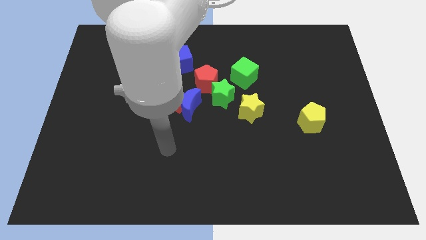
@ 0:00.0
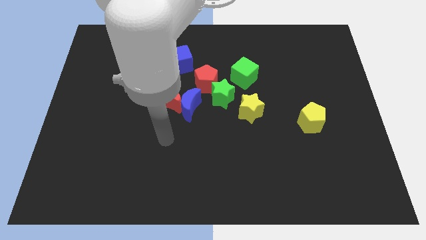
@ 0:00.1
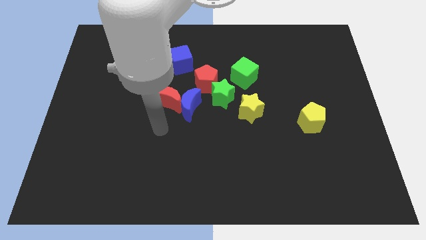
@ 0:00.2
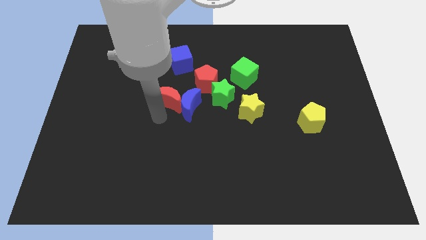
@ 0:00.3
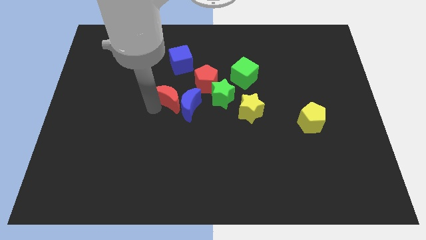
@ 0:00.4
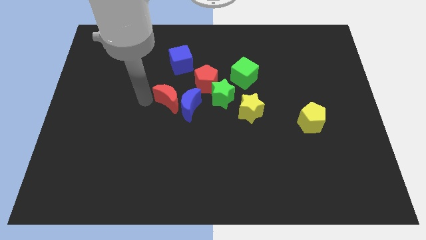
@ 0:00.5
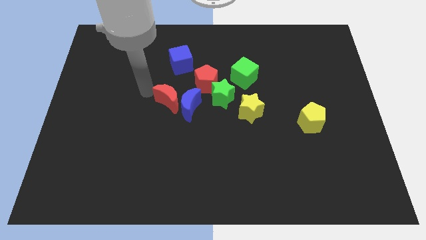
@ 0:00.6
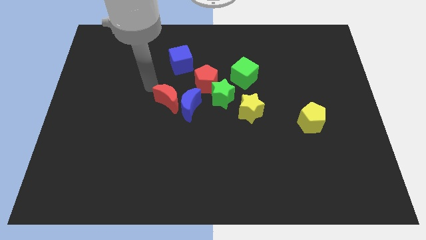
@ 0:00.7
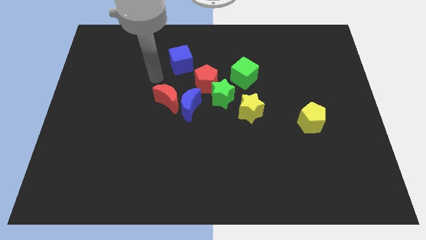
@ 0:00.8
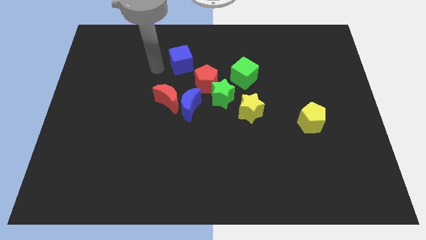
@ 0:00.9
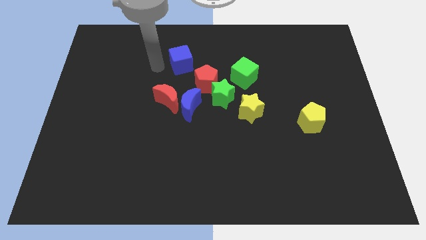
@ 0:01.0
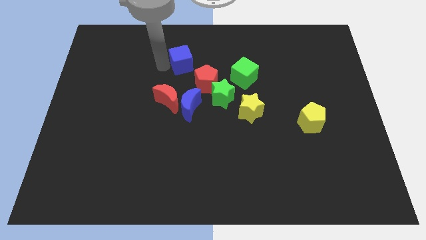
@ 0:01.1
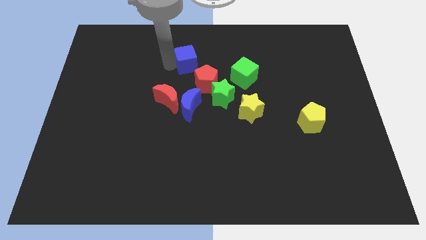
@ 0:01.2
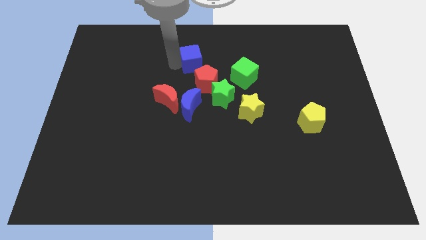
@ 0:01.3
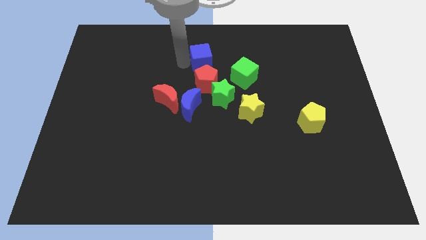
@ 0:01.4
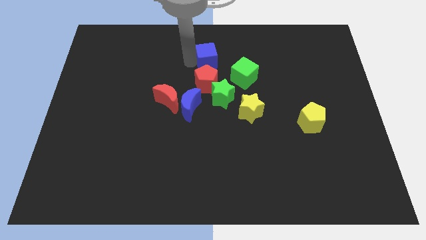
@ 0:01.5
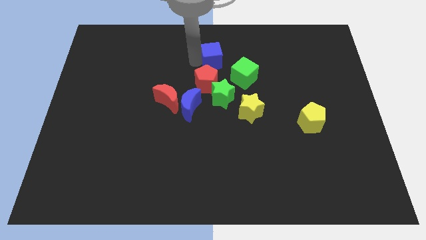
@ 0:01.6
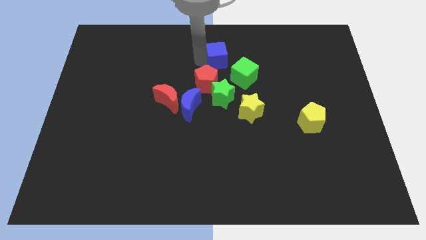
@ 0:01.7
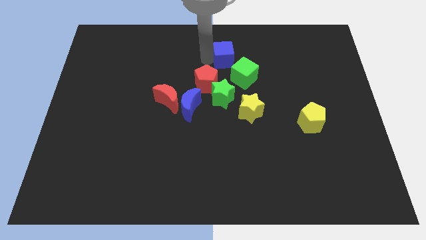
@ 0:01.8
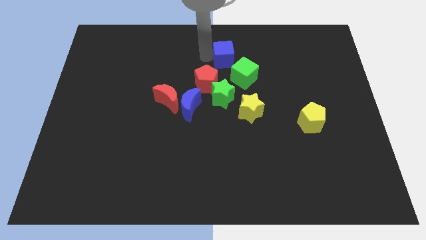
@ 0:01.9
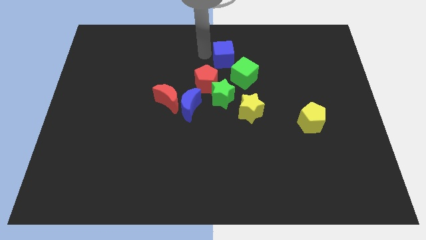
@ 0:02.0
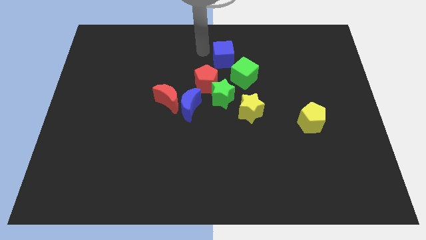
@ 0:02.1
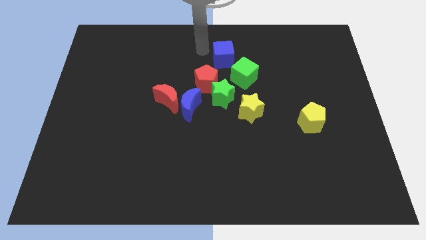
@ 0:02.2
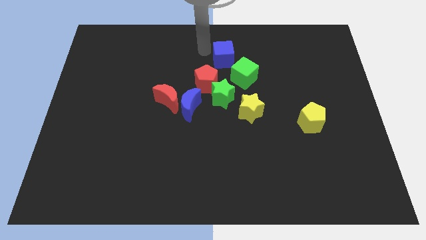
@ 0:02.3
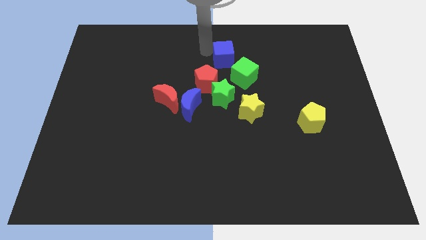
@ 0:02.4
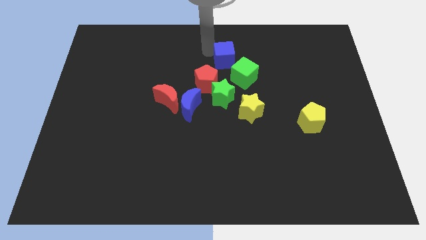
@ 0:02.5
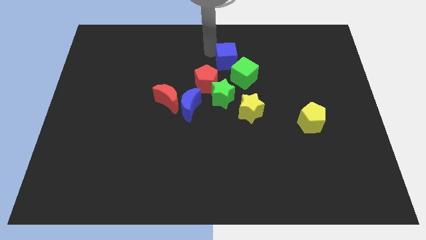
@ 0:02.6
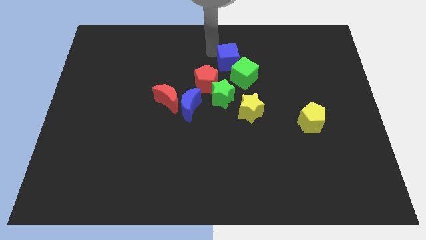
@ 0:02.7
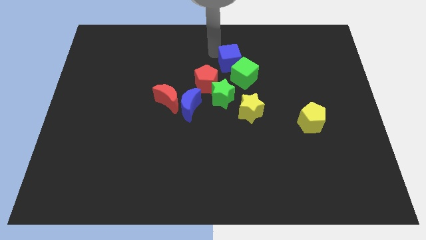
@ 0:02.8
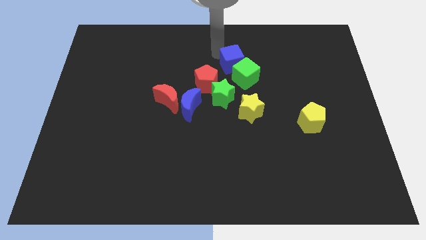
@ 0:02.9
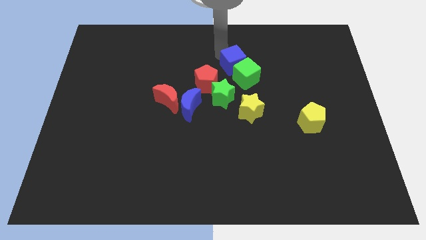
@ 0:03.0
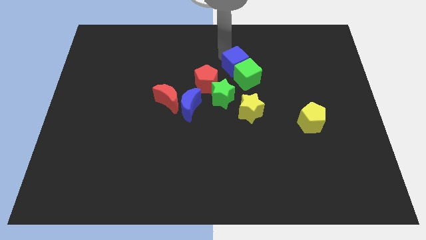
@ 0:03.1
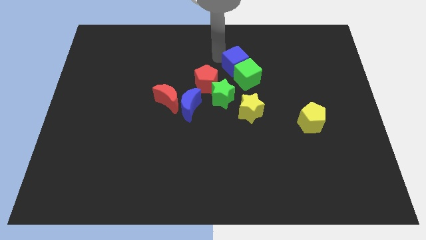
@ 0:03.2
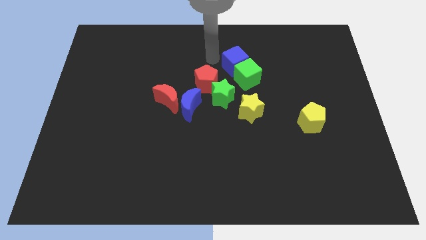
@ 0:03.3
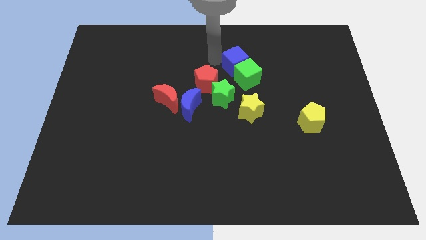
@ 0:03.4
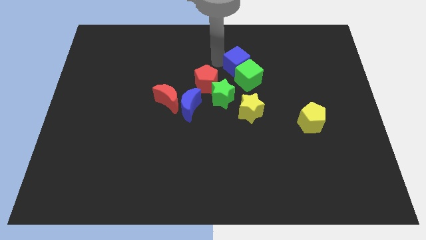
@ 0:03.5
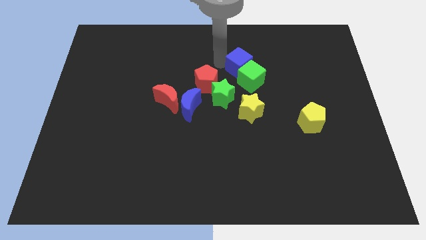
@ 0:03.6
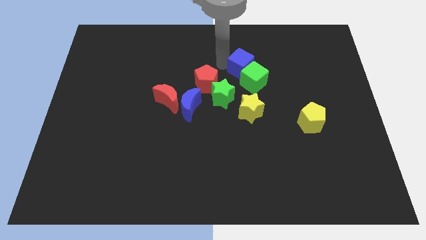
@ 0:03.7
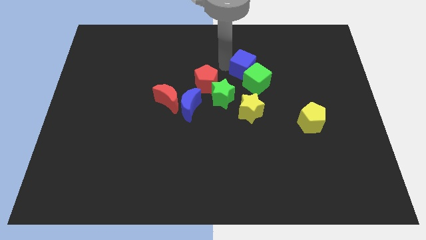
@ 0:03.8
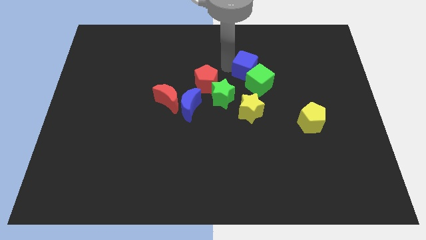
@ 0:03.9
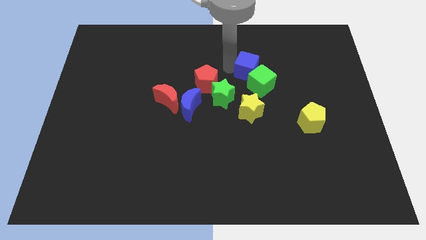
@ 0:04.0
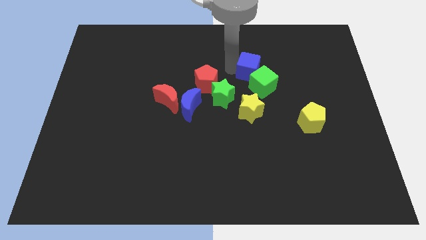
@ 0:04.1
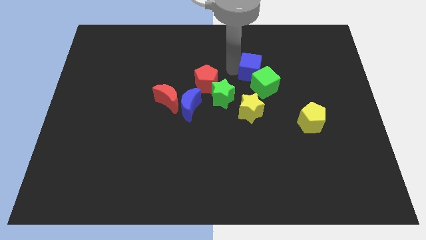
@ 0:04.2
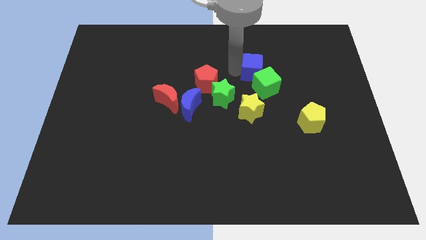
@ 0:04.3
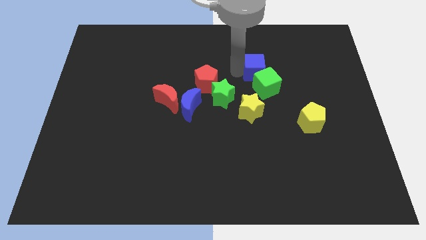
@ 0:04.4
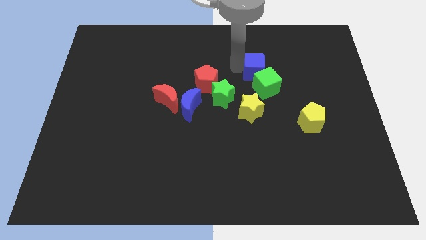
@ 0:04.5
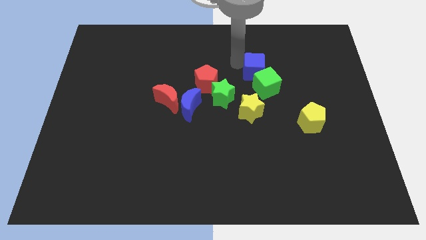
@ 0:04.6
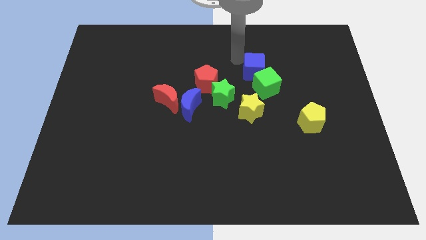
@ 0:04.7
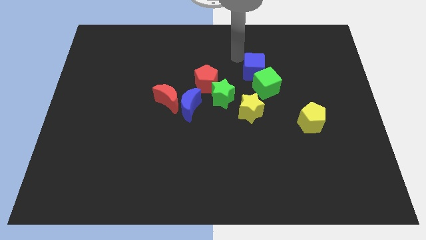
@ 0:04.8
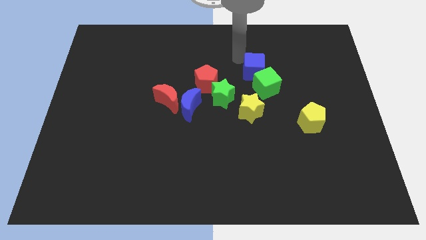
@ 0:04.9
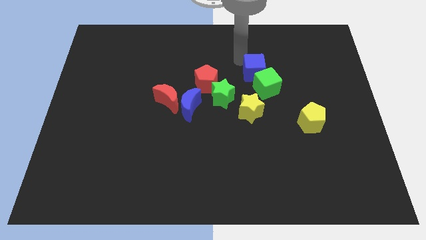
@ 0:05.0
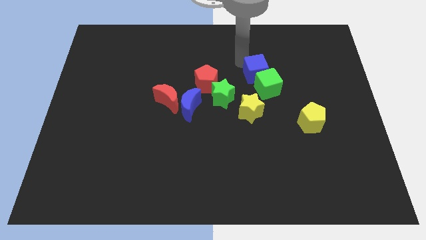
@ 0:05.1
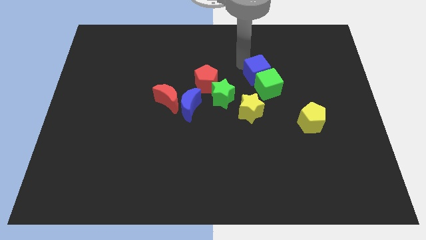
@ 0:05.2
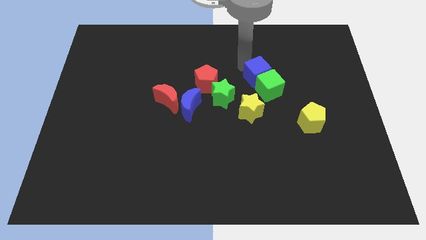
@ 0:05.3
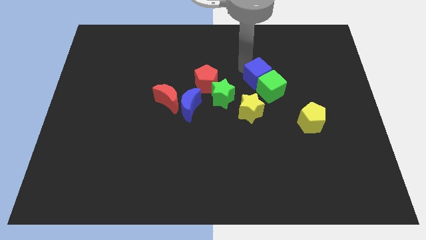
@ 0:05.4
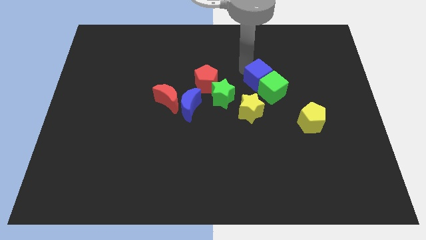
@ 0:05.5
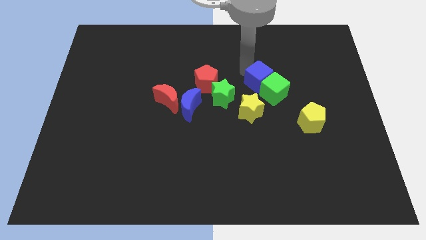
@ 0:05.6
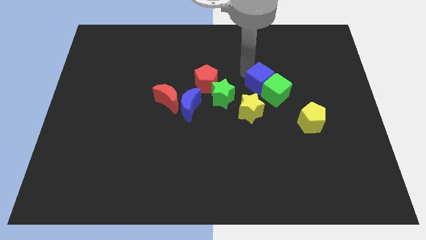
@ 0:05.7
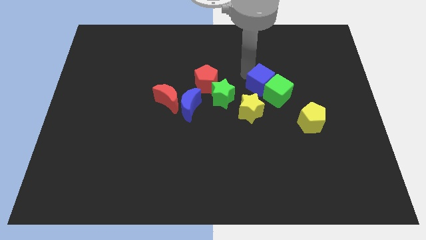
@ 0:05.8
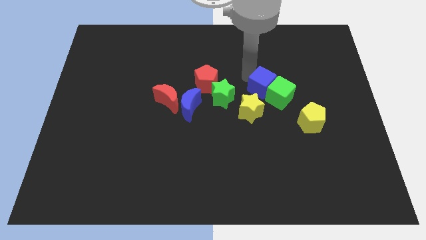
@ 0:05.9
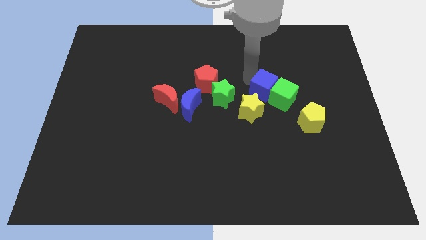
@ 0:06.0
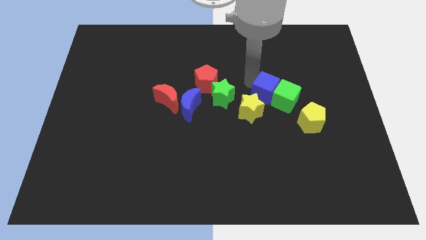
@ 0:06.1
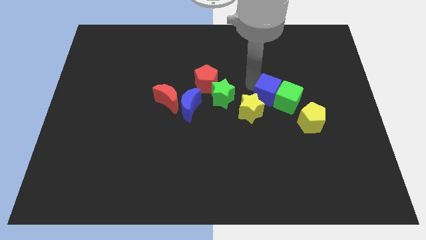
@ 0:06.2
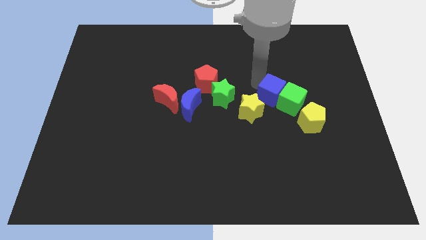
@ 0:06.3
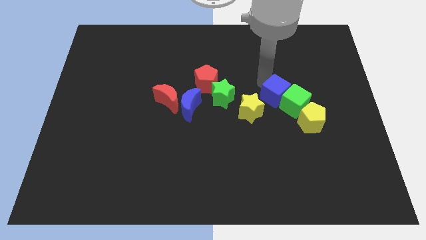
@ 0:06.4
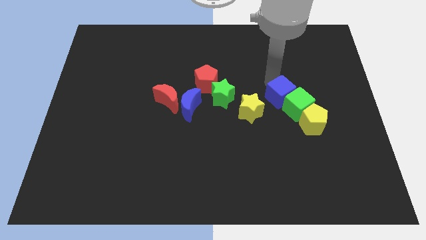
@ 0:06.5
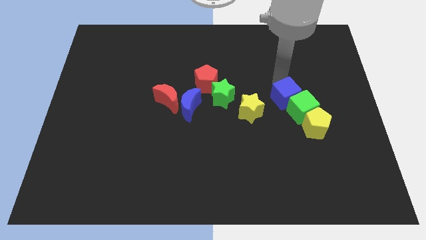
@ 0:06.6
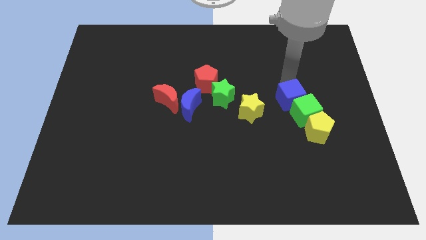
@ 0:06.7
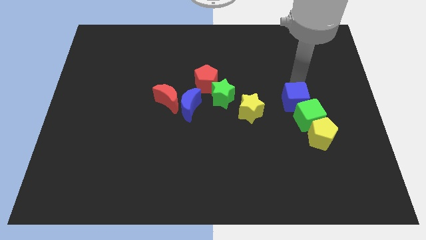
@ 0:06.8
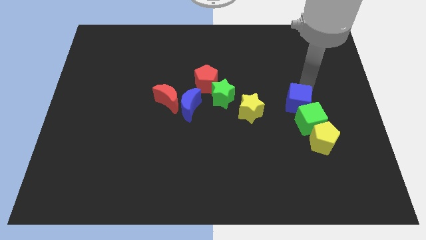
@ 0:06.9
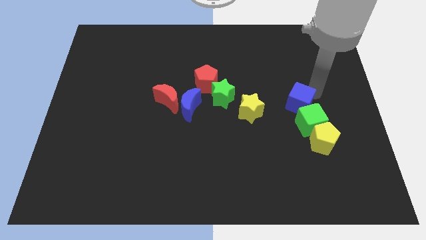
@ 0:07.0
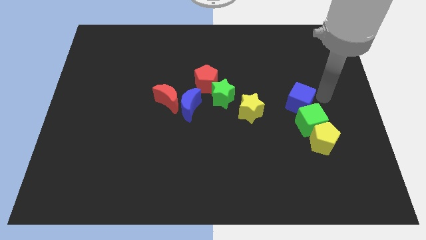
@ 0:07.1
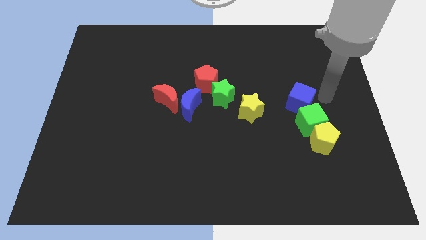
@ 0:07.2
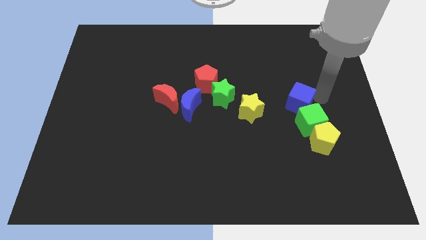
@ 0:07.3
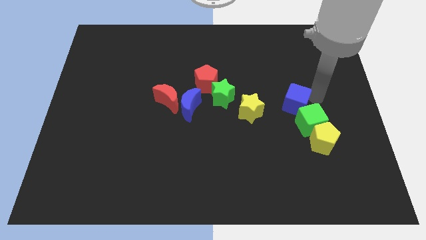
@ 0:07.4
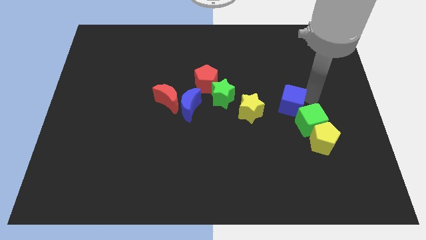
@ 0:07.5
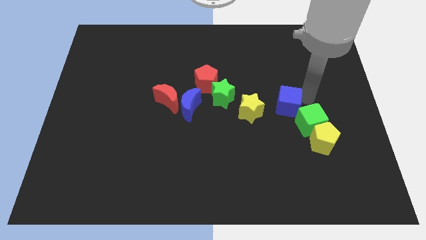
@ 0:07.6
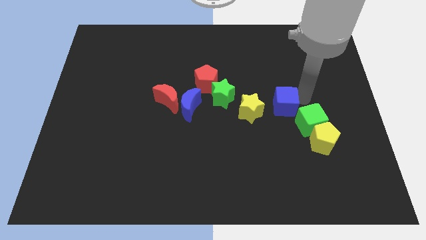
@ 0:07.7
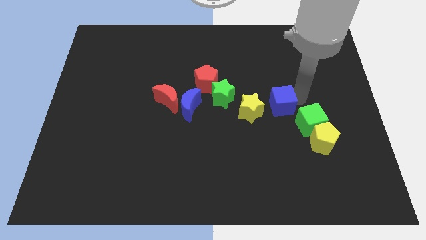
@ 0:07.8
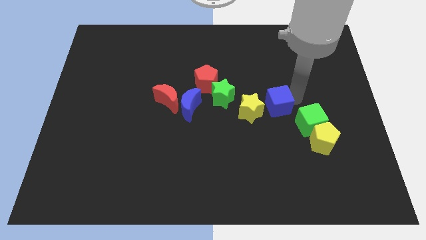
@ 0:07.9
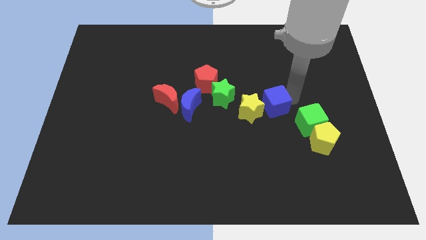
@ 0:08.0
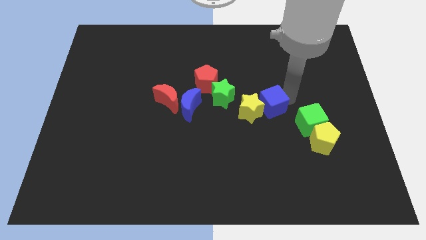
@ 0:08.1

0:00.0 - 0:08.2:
push the blue cube next to the yellow star
